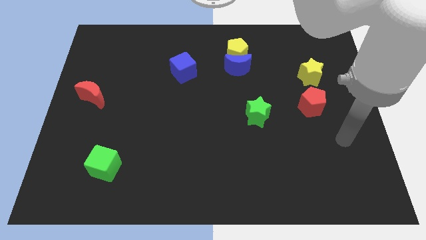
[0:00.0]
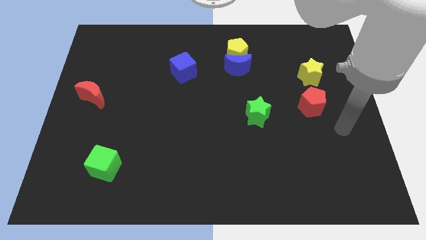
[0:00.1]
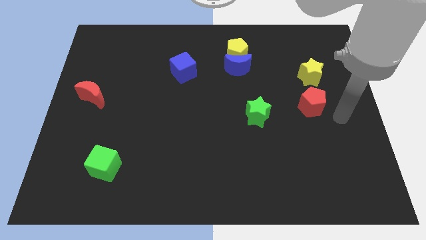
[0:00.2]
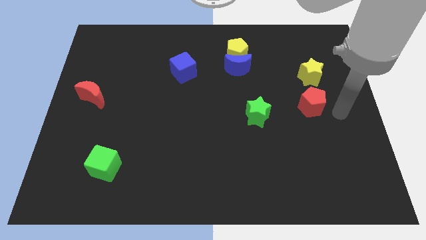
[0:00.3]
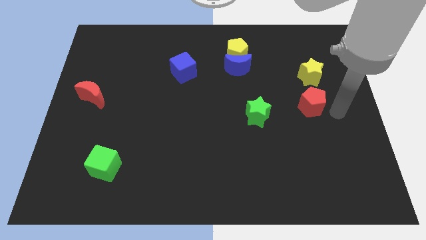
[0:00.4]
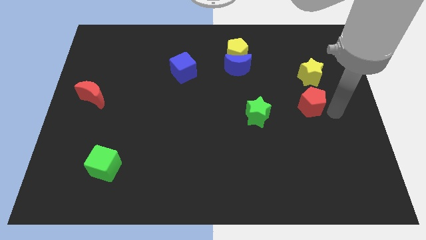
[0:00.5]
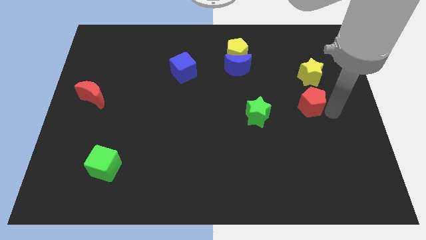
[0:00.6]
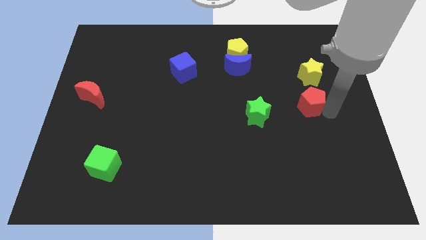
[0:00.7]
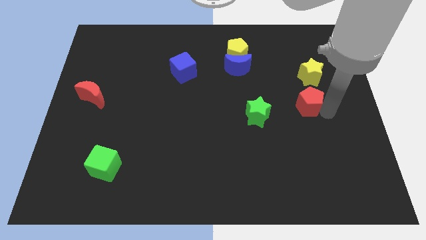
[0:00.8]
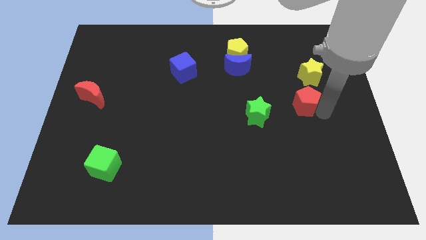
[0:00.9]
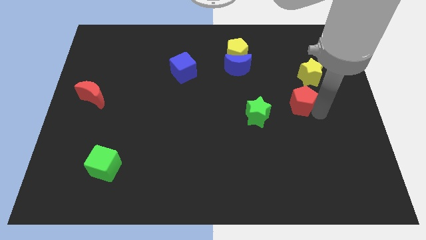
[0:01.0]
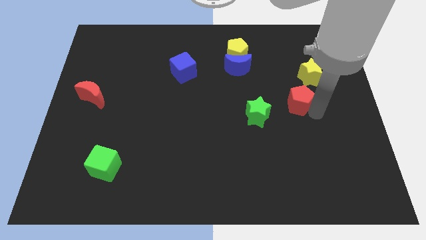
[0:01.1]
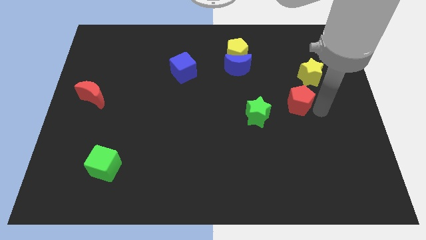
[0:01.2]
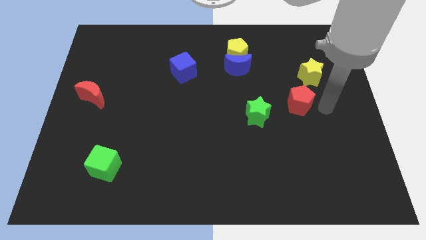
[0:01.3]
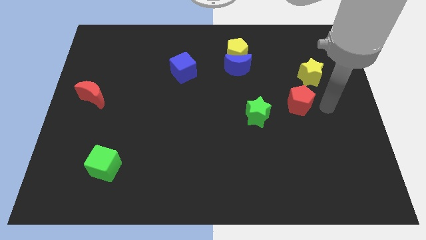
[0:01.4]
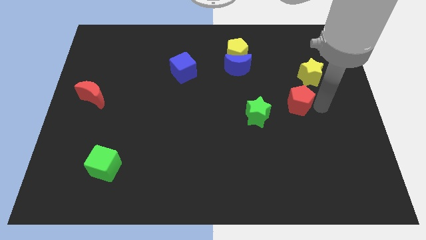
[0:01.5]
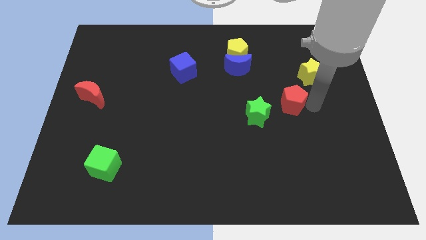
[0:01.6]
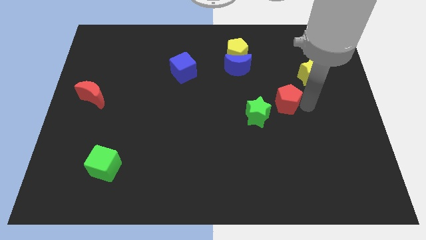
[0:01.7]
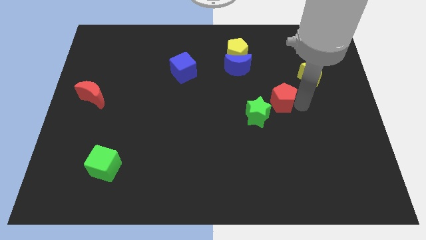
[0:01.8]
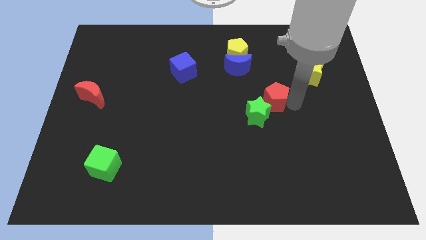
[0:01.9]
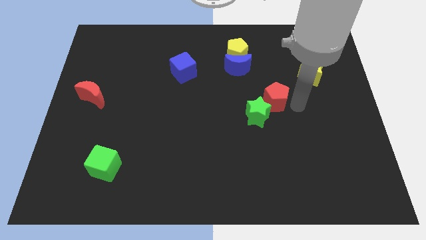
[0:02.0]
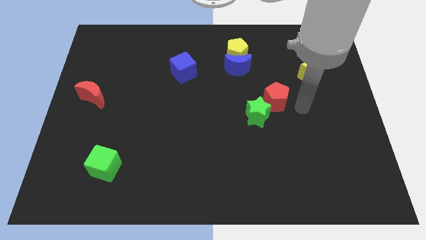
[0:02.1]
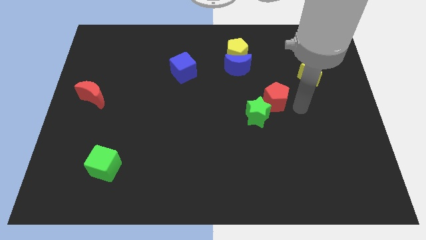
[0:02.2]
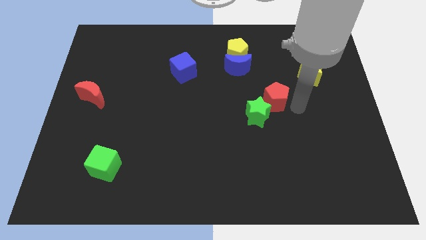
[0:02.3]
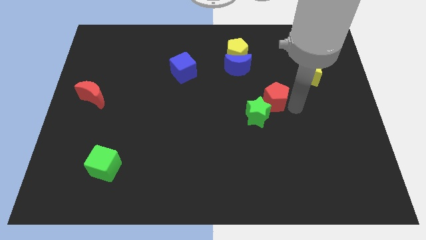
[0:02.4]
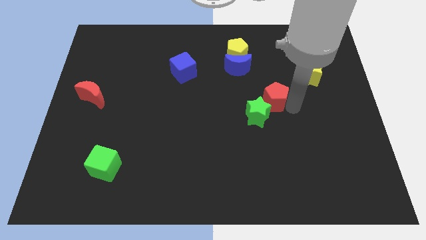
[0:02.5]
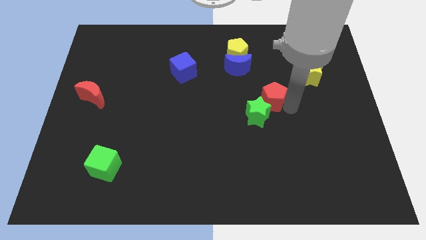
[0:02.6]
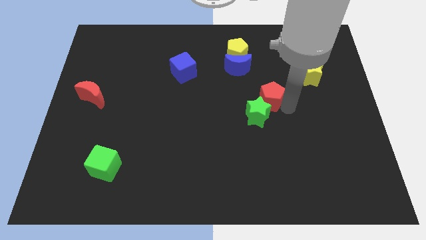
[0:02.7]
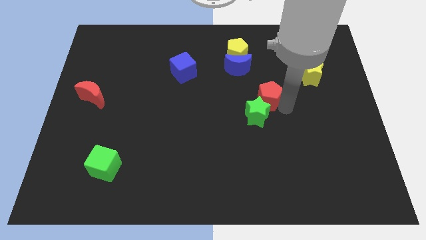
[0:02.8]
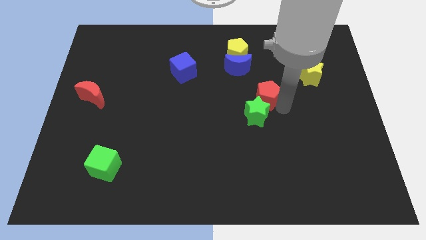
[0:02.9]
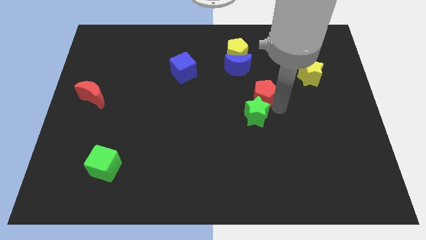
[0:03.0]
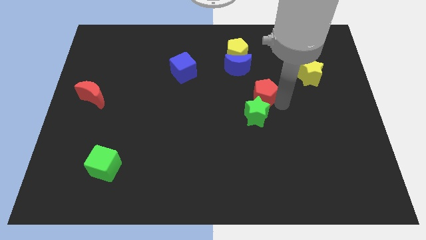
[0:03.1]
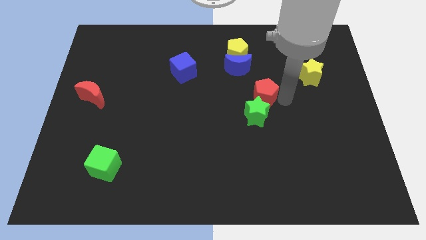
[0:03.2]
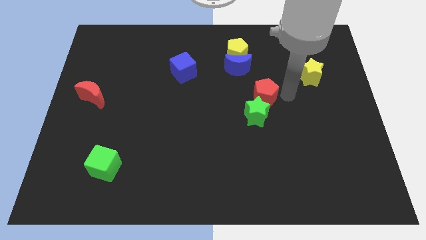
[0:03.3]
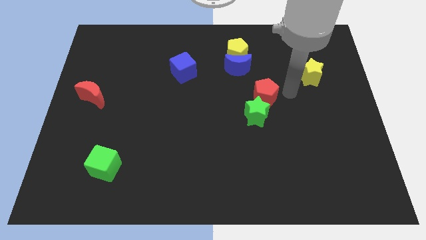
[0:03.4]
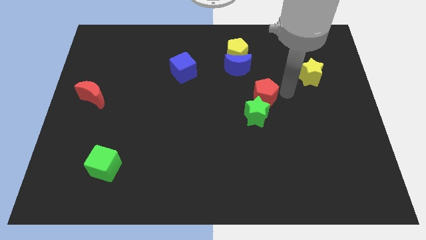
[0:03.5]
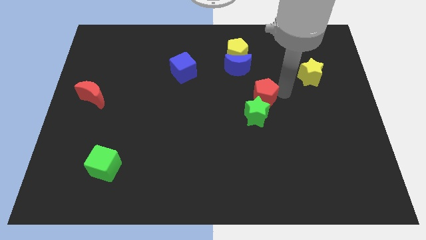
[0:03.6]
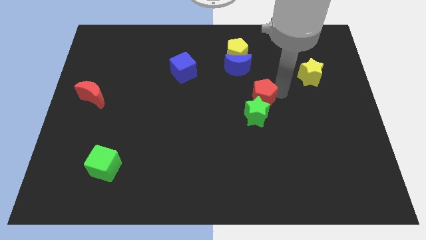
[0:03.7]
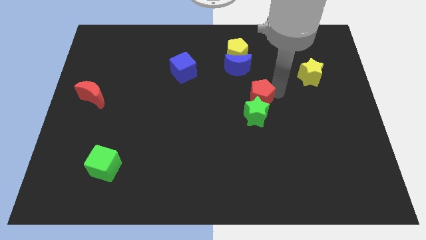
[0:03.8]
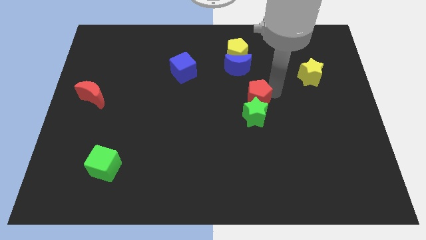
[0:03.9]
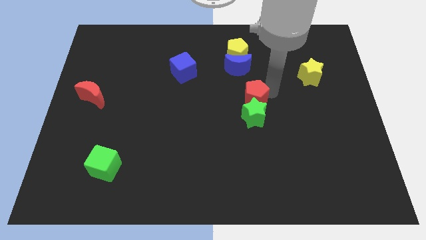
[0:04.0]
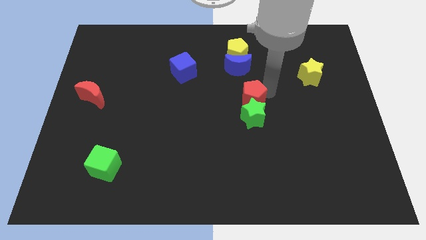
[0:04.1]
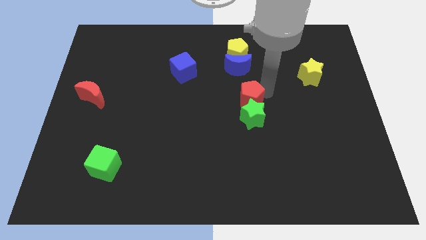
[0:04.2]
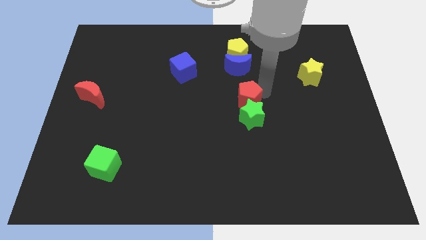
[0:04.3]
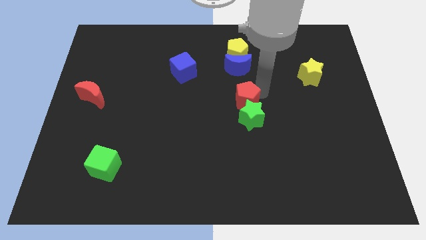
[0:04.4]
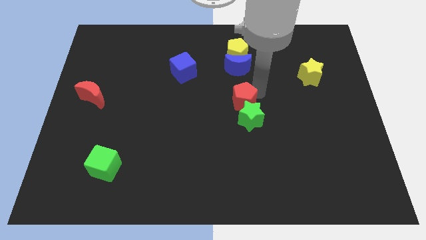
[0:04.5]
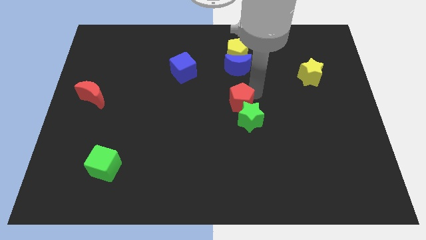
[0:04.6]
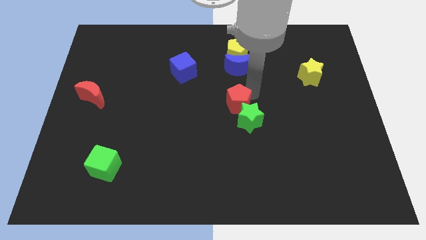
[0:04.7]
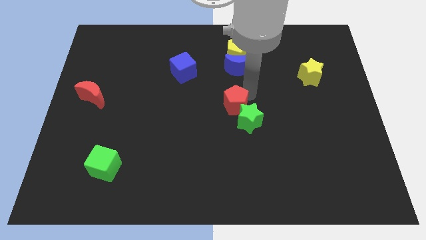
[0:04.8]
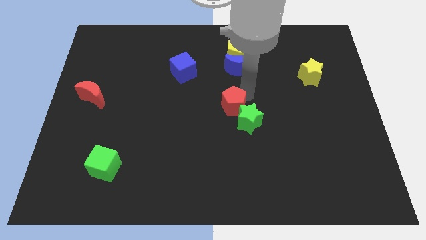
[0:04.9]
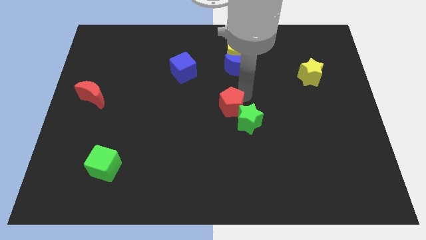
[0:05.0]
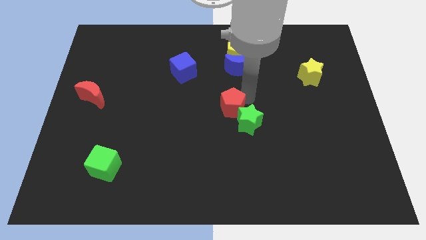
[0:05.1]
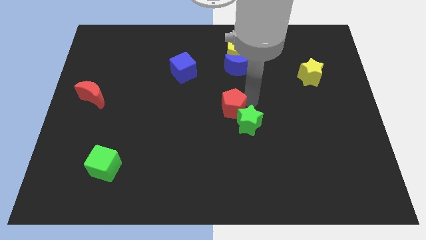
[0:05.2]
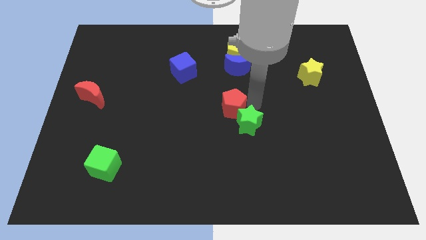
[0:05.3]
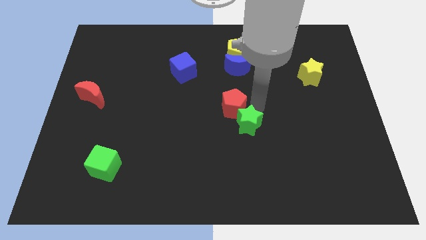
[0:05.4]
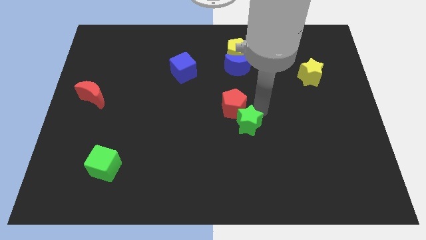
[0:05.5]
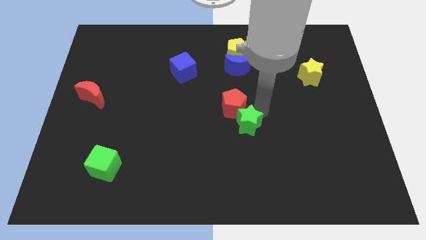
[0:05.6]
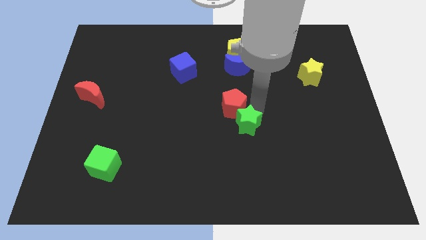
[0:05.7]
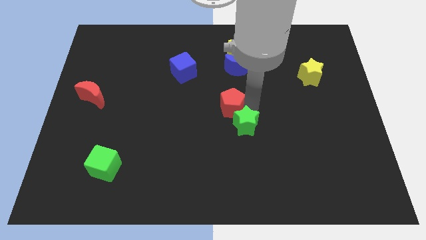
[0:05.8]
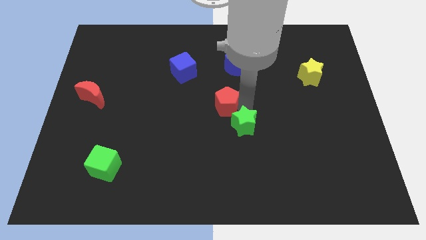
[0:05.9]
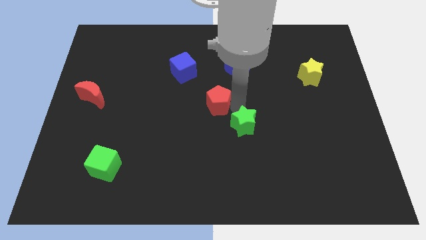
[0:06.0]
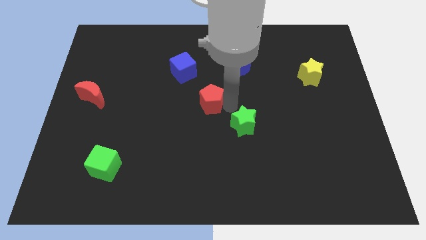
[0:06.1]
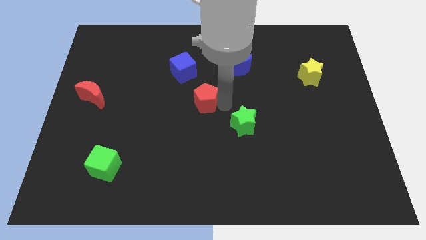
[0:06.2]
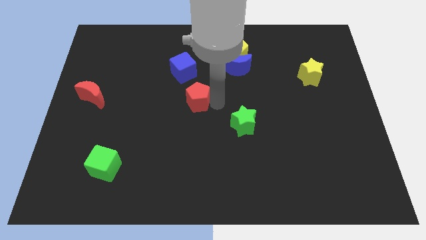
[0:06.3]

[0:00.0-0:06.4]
slide the red pentagon to the bottom of the blue cube

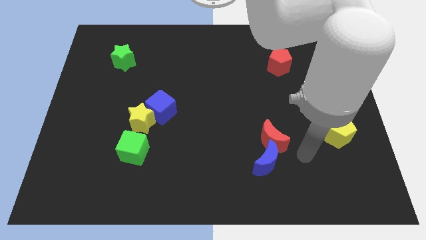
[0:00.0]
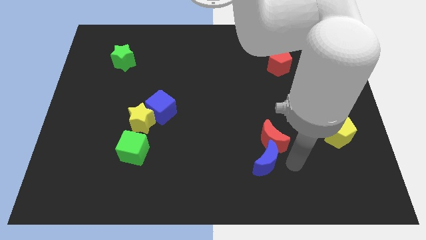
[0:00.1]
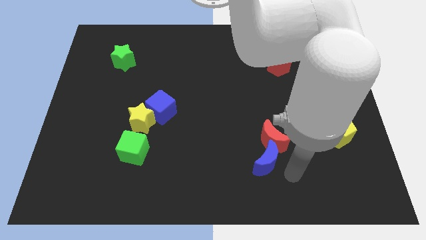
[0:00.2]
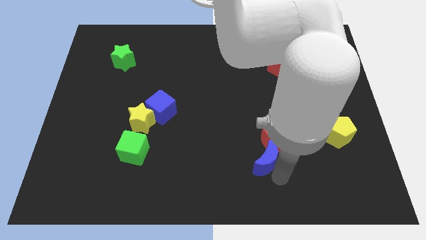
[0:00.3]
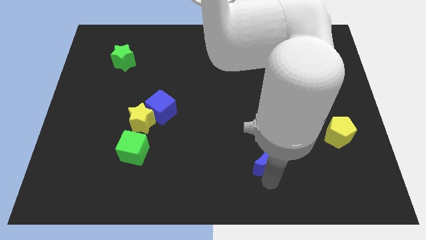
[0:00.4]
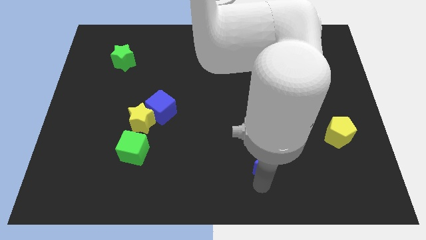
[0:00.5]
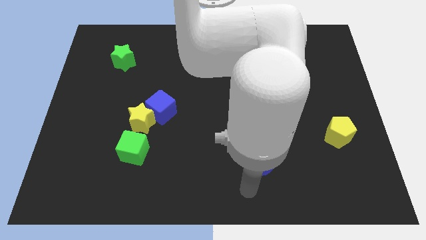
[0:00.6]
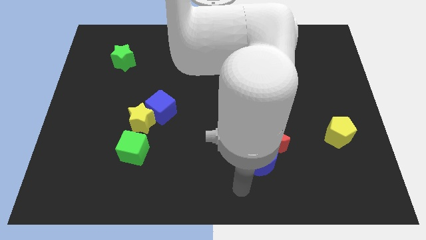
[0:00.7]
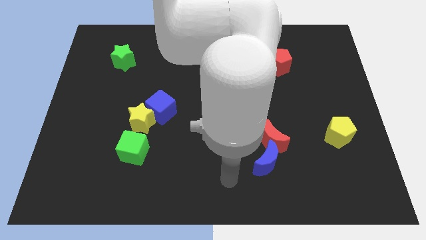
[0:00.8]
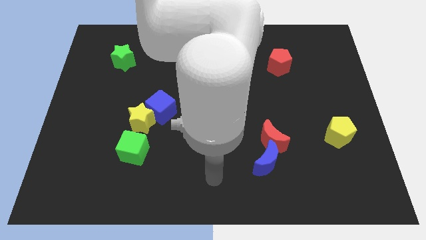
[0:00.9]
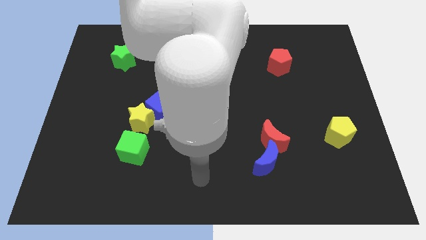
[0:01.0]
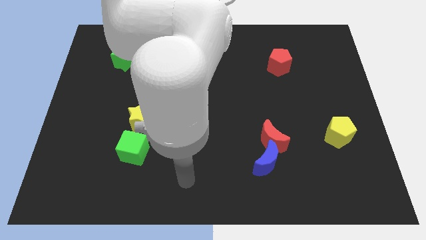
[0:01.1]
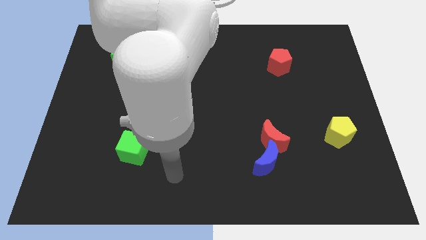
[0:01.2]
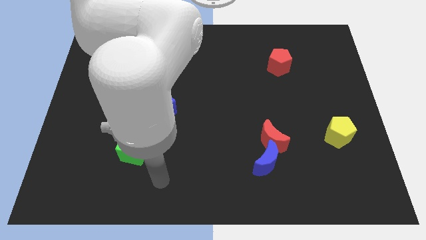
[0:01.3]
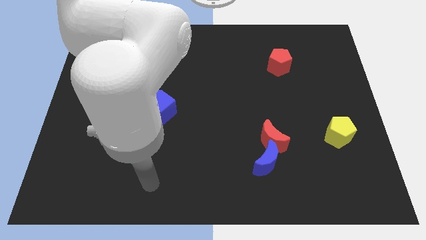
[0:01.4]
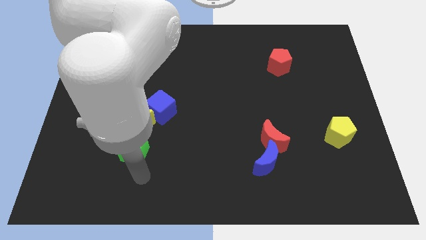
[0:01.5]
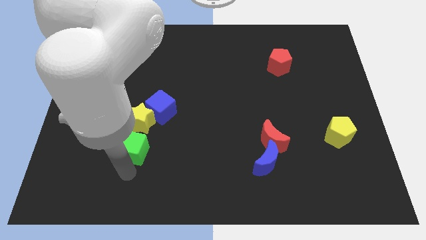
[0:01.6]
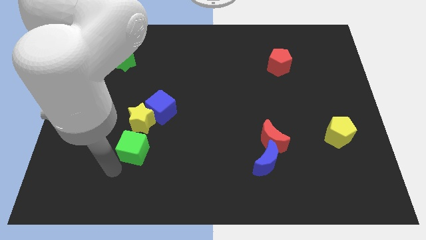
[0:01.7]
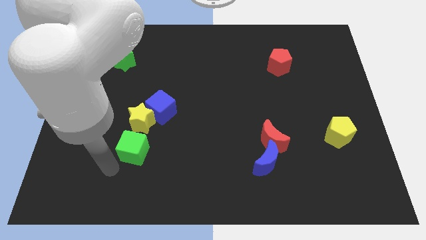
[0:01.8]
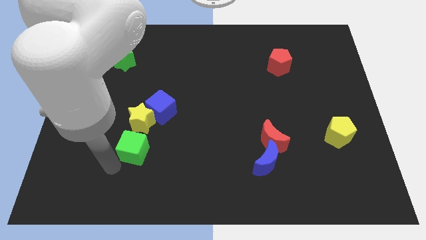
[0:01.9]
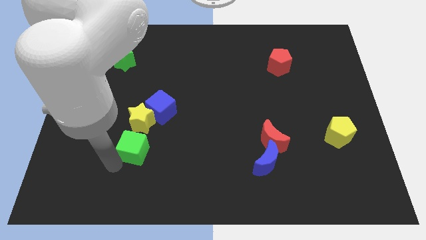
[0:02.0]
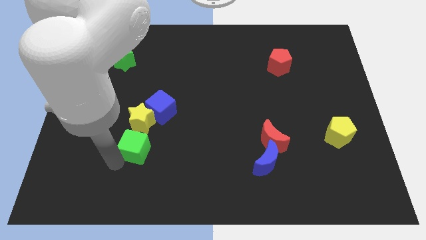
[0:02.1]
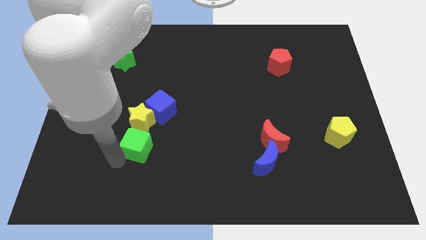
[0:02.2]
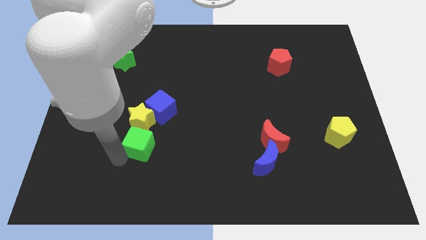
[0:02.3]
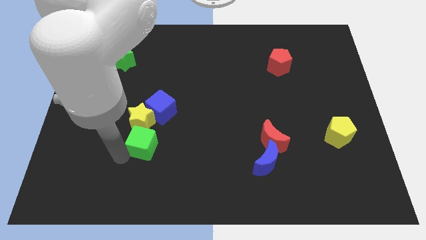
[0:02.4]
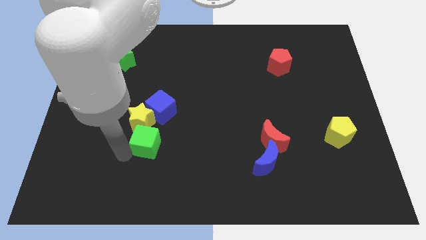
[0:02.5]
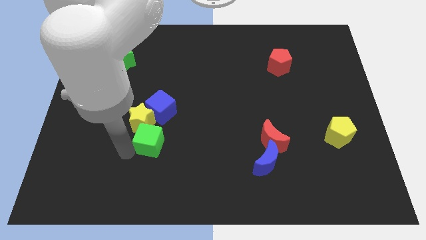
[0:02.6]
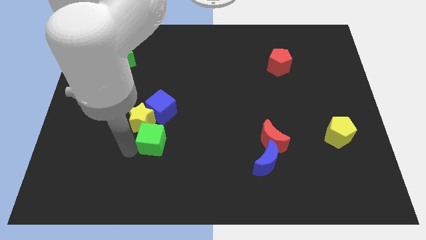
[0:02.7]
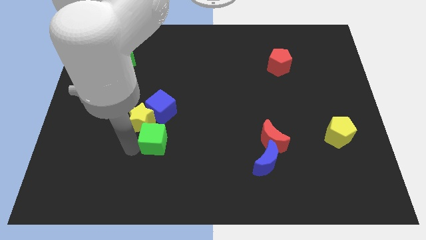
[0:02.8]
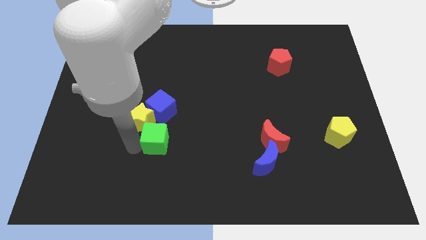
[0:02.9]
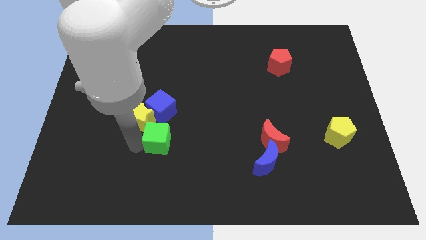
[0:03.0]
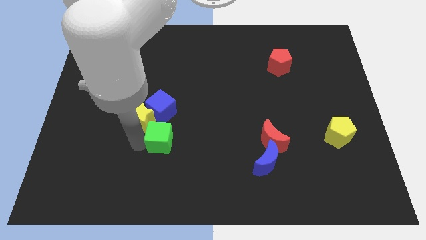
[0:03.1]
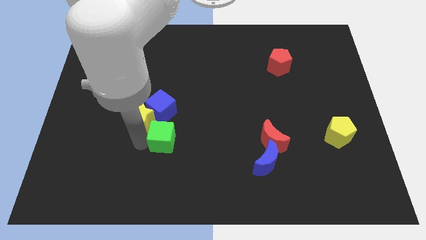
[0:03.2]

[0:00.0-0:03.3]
put the green cube to the right of the yellow star
